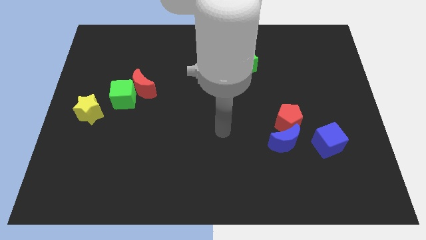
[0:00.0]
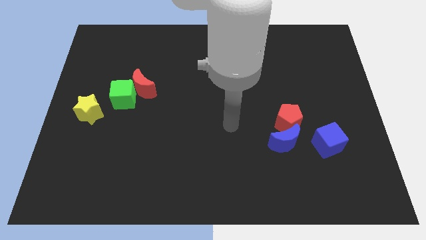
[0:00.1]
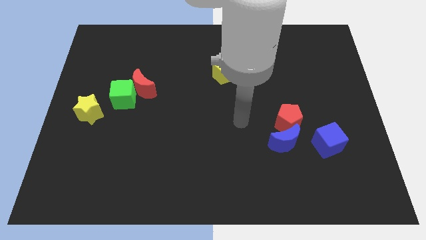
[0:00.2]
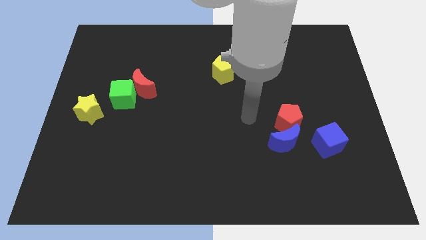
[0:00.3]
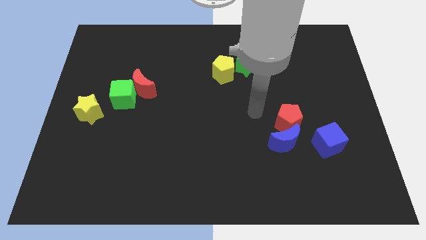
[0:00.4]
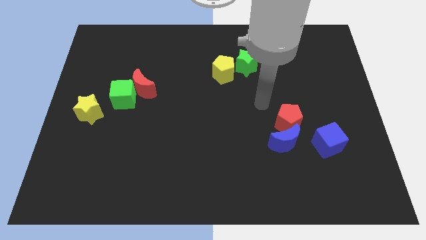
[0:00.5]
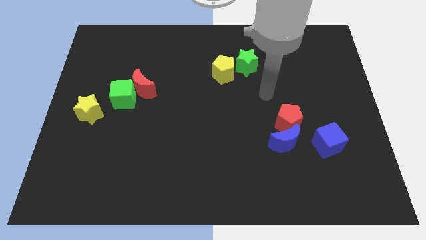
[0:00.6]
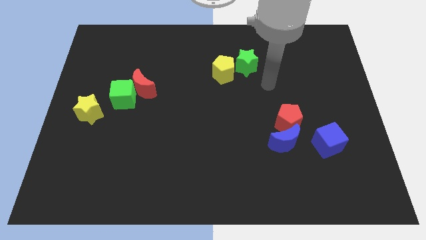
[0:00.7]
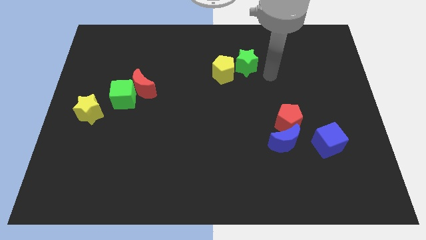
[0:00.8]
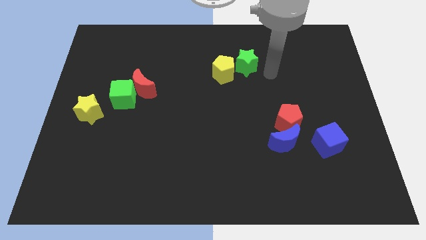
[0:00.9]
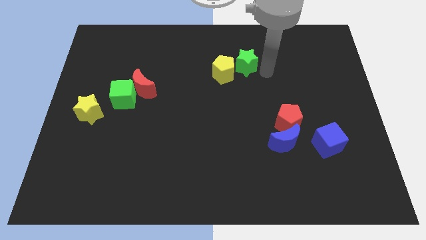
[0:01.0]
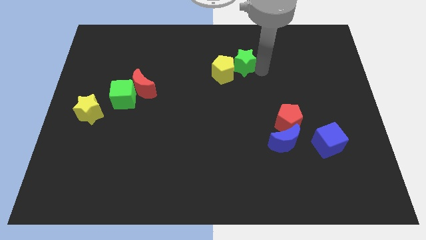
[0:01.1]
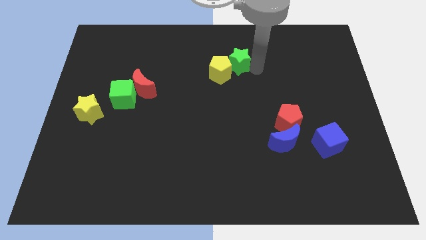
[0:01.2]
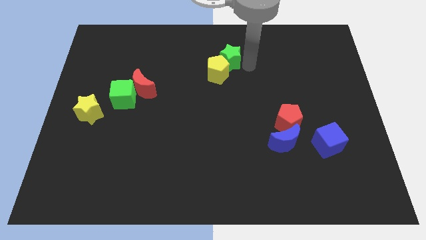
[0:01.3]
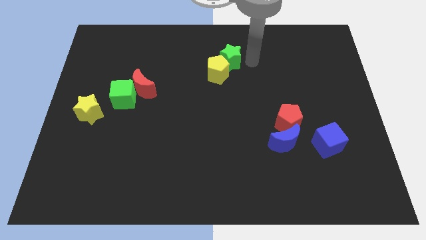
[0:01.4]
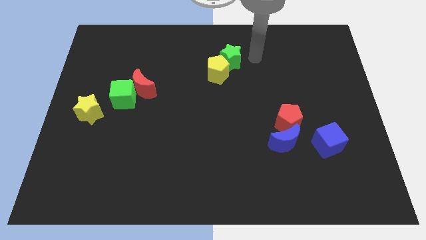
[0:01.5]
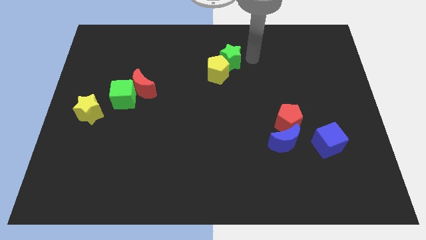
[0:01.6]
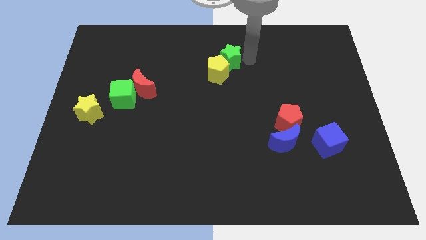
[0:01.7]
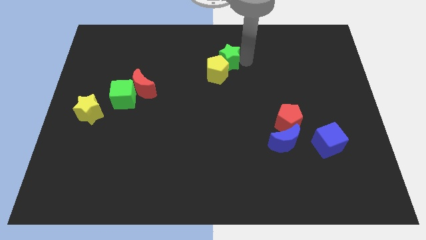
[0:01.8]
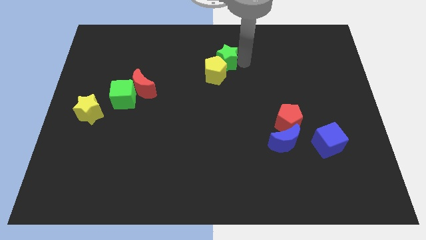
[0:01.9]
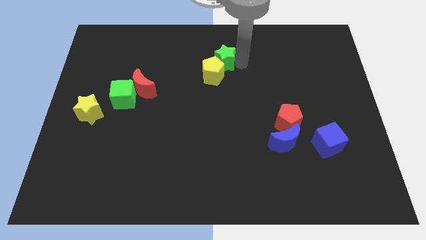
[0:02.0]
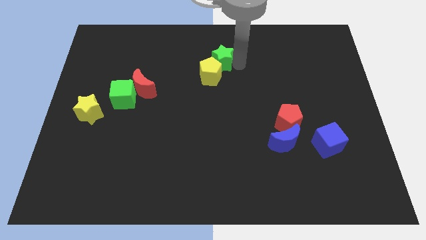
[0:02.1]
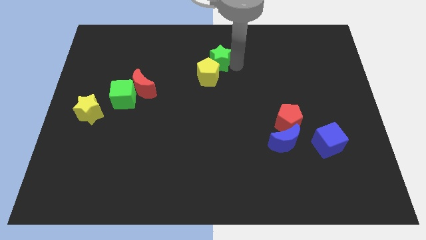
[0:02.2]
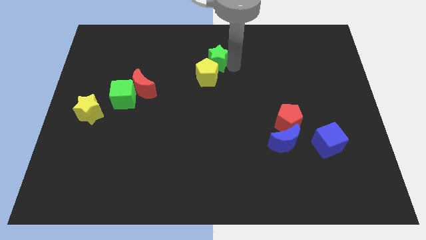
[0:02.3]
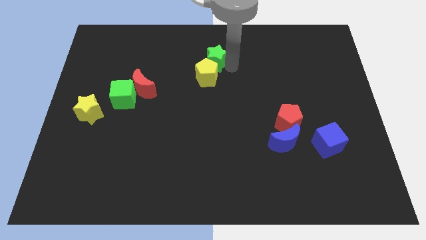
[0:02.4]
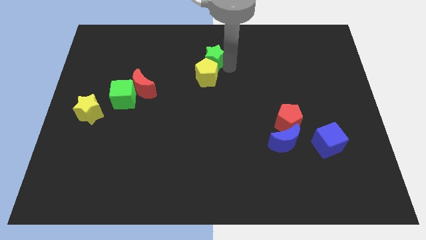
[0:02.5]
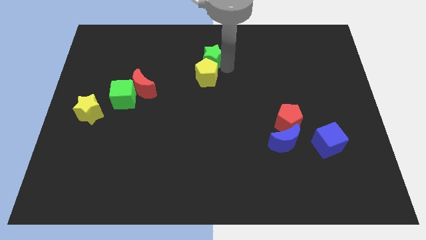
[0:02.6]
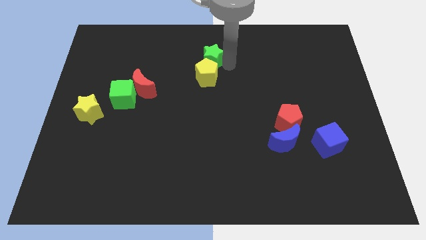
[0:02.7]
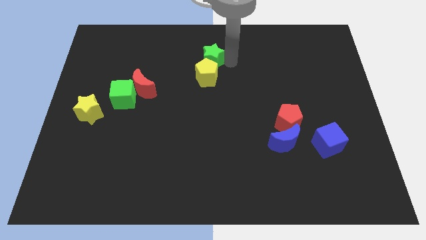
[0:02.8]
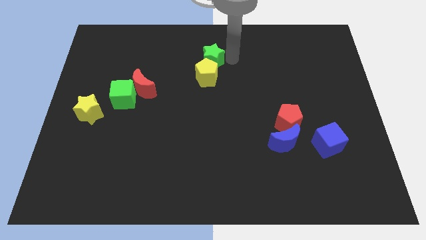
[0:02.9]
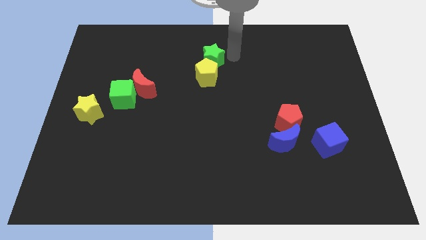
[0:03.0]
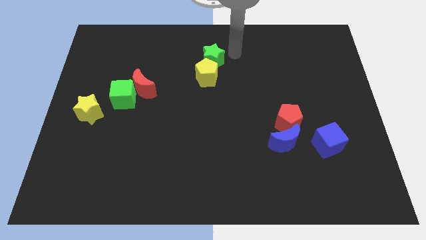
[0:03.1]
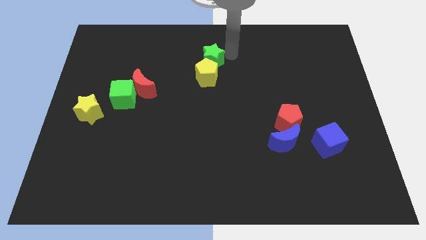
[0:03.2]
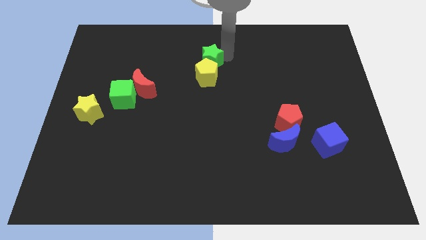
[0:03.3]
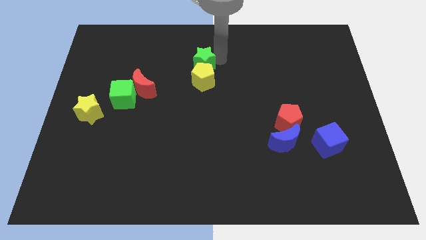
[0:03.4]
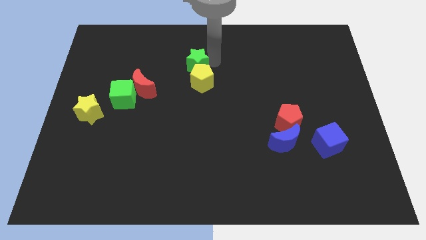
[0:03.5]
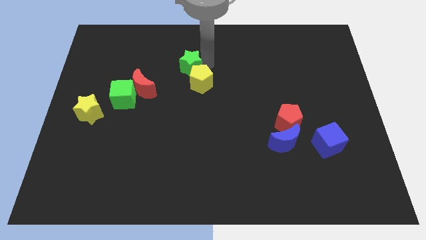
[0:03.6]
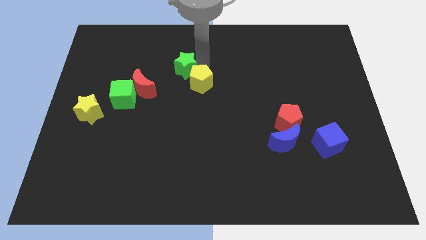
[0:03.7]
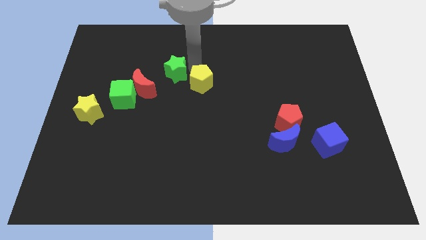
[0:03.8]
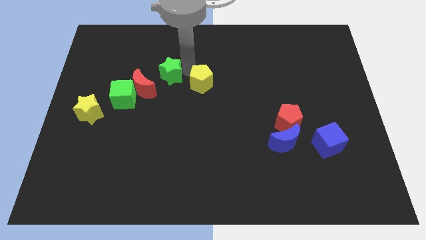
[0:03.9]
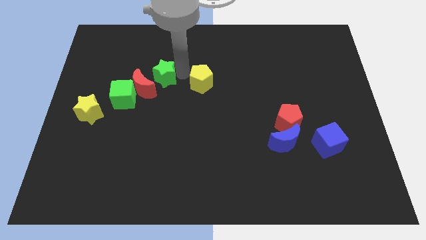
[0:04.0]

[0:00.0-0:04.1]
slide the green star to the left

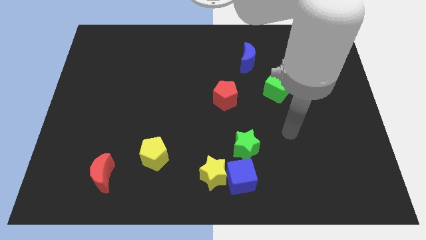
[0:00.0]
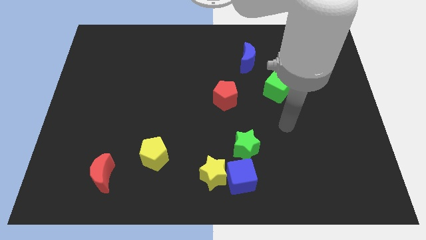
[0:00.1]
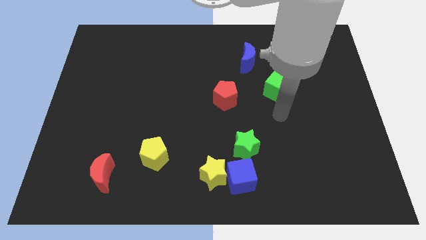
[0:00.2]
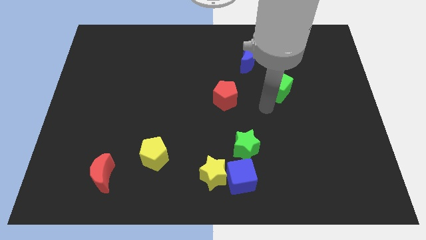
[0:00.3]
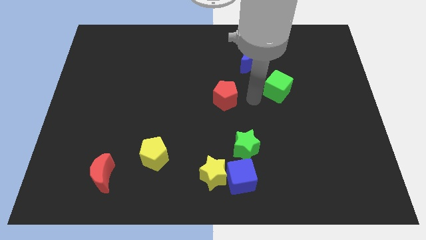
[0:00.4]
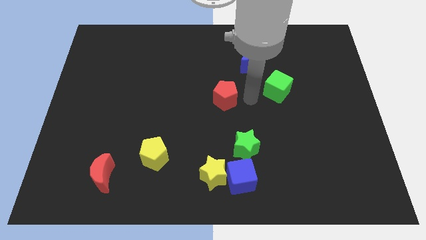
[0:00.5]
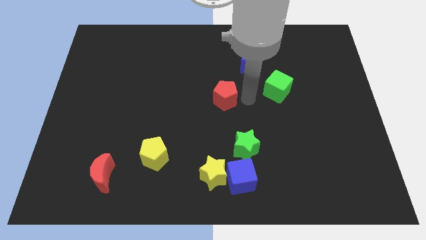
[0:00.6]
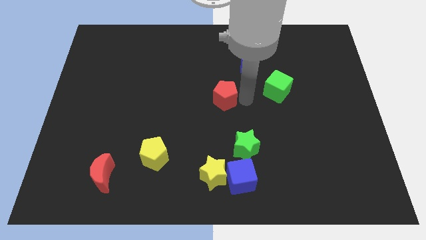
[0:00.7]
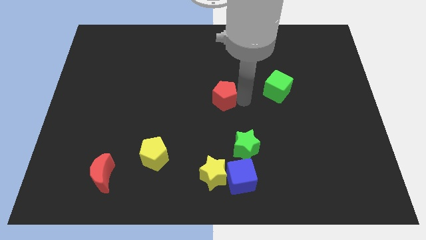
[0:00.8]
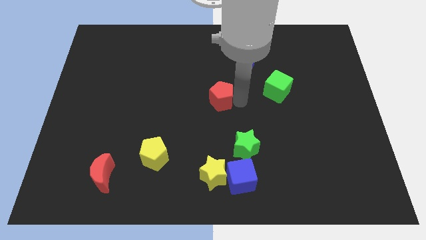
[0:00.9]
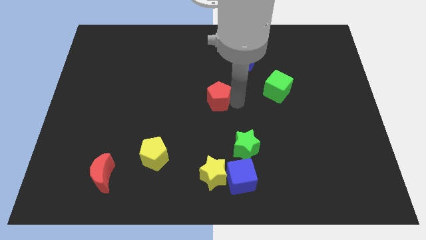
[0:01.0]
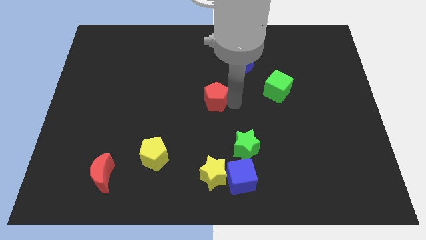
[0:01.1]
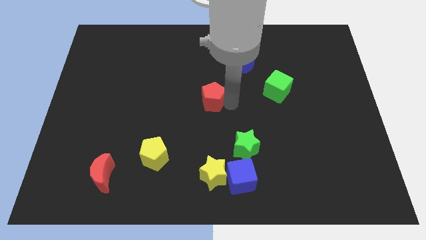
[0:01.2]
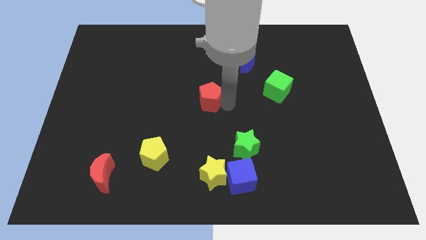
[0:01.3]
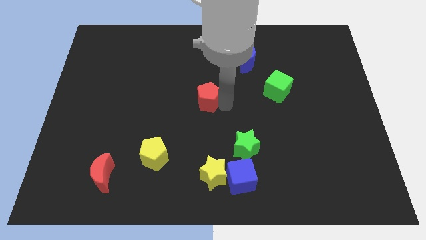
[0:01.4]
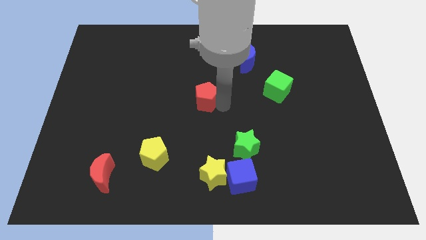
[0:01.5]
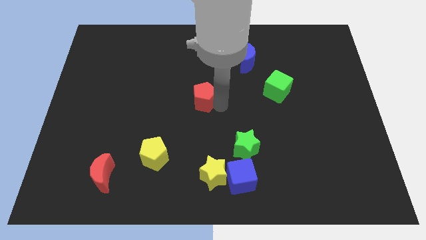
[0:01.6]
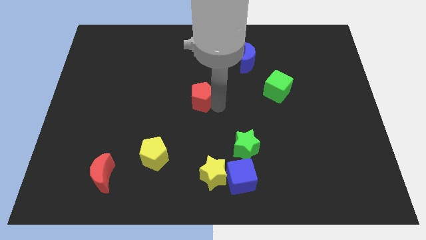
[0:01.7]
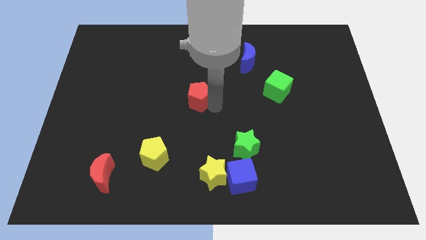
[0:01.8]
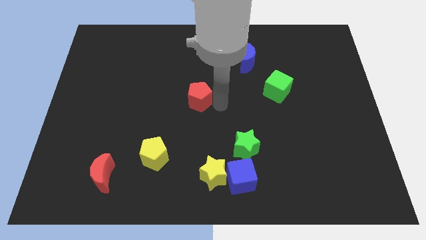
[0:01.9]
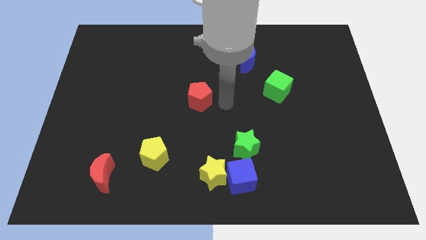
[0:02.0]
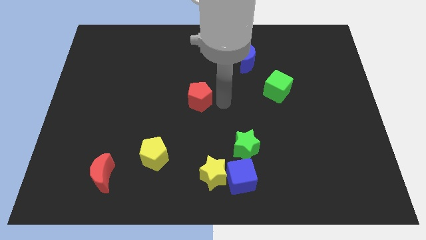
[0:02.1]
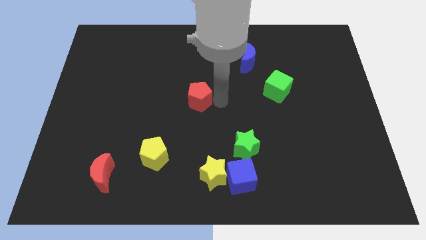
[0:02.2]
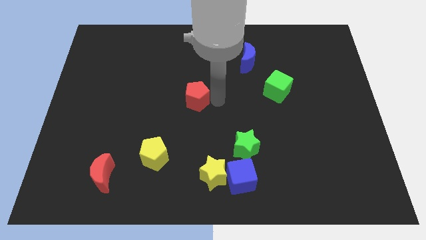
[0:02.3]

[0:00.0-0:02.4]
slightly slide the red pentagon left

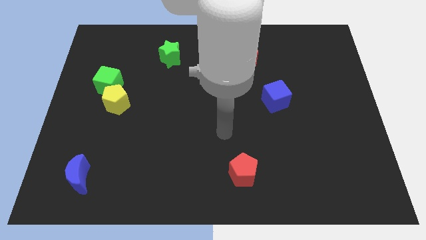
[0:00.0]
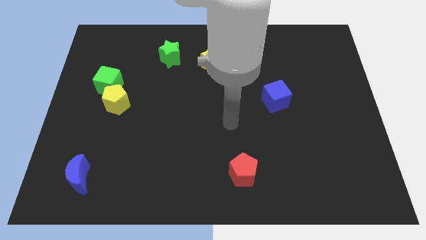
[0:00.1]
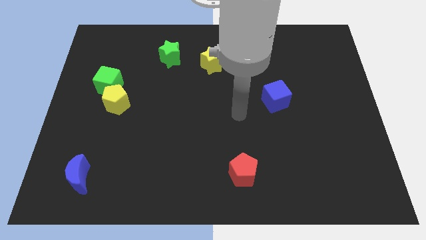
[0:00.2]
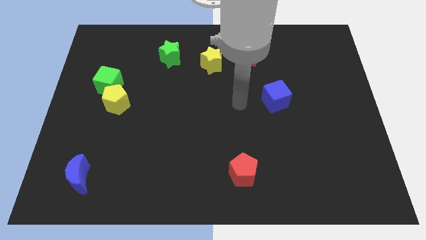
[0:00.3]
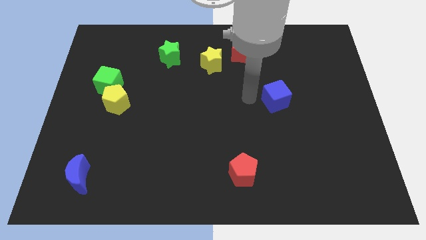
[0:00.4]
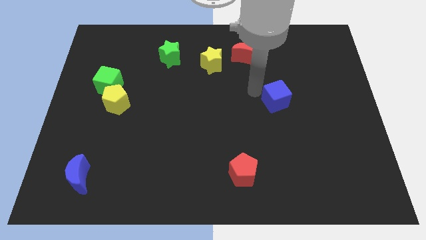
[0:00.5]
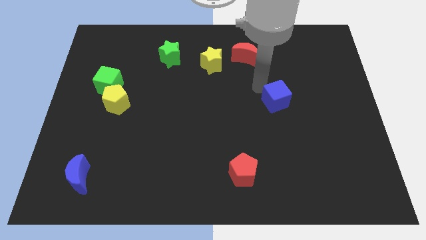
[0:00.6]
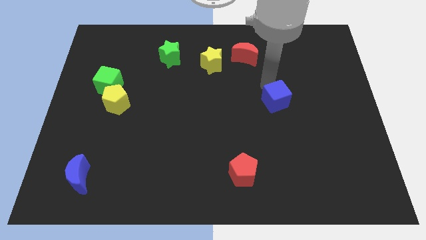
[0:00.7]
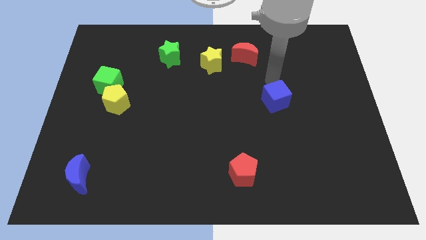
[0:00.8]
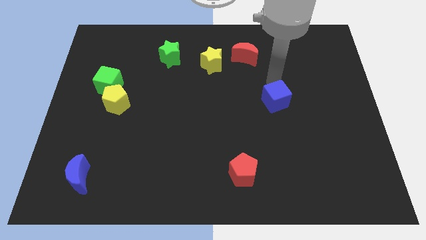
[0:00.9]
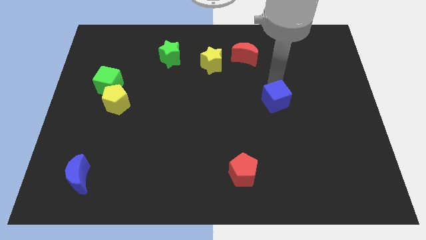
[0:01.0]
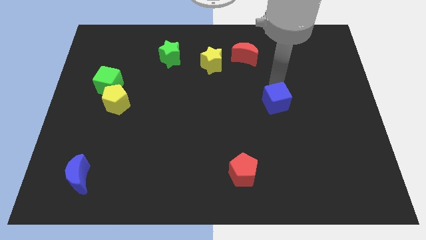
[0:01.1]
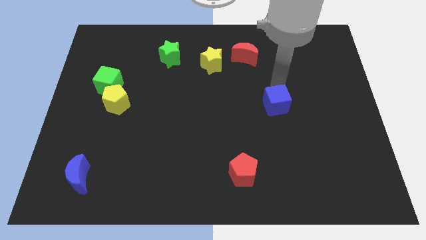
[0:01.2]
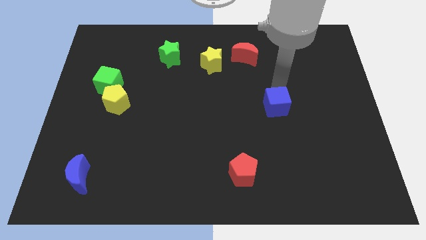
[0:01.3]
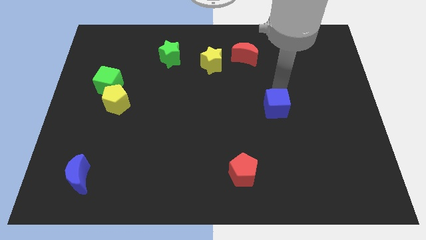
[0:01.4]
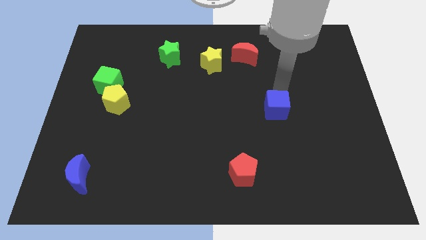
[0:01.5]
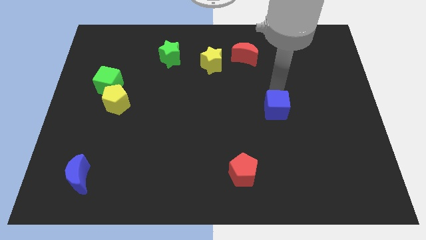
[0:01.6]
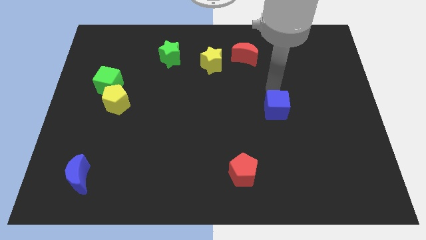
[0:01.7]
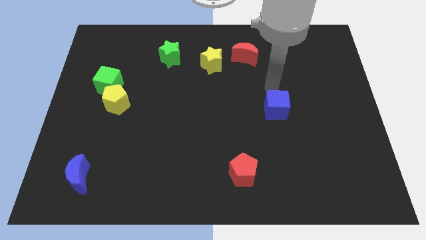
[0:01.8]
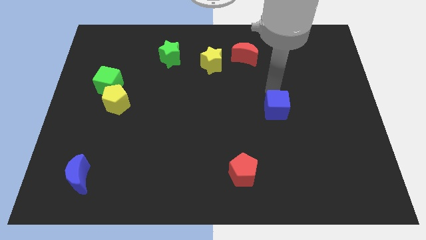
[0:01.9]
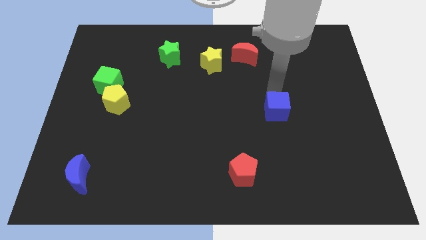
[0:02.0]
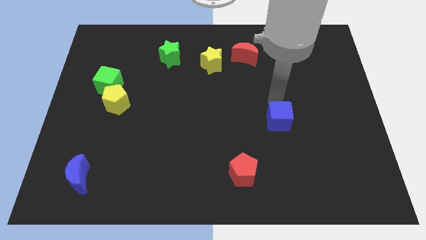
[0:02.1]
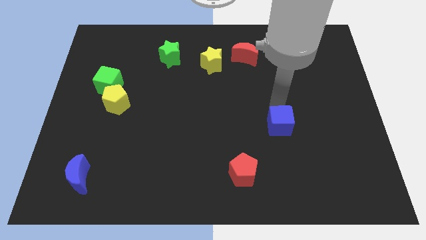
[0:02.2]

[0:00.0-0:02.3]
slightly move the blue cube downwards
